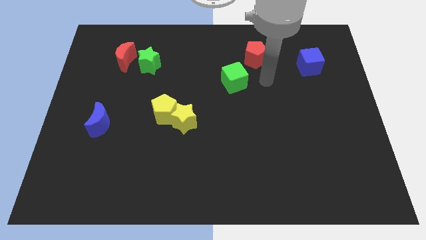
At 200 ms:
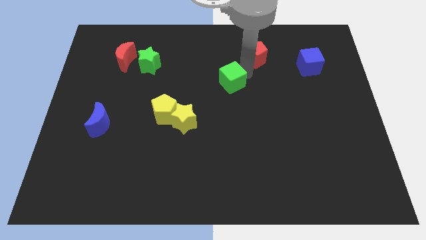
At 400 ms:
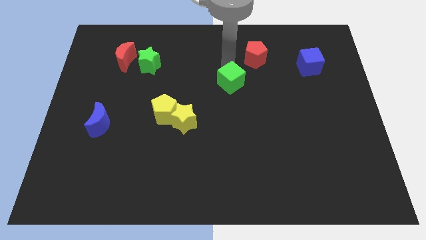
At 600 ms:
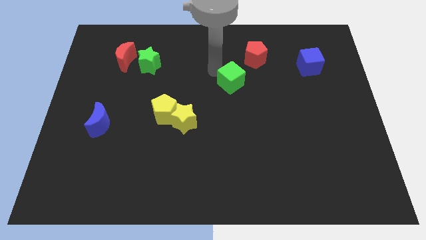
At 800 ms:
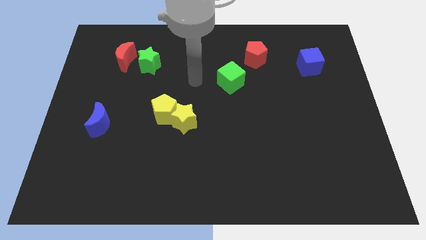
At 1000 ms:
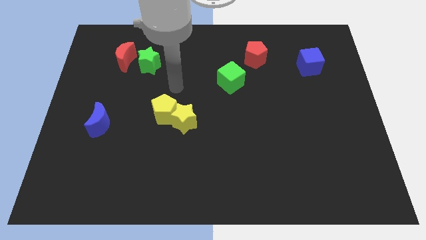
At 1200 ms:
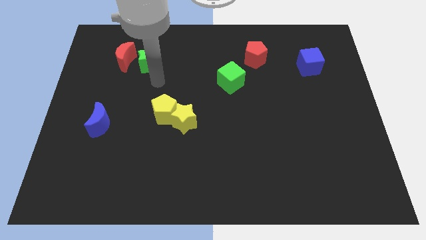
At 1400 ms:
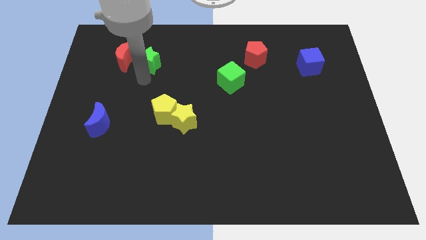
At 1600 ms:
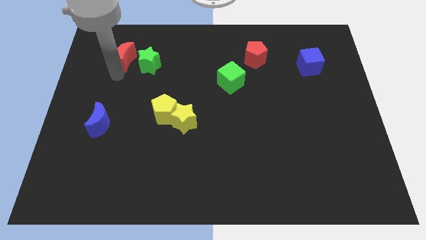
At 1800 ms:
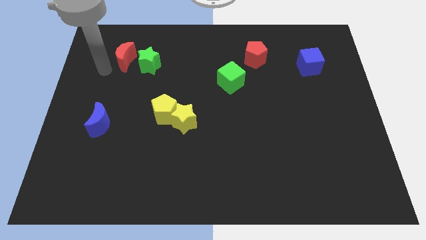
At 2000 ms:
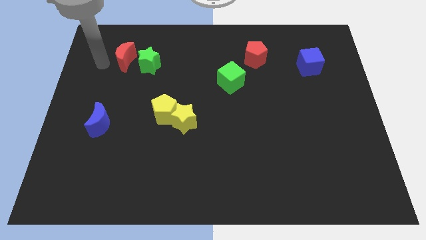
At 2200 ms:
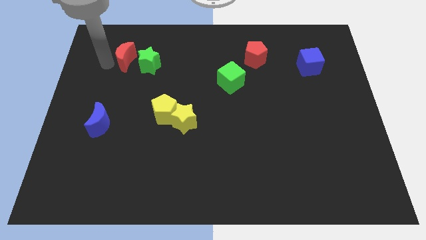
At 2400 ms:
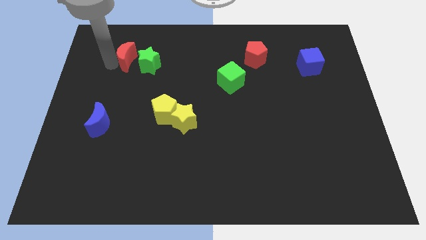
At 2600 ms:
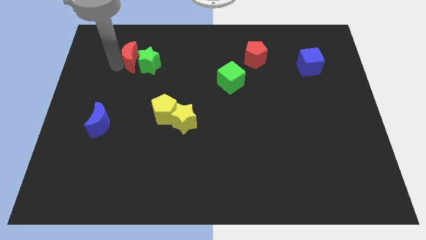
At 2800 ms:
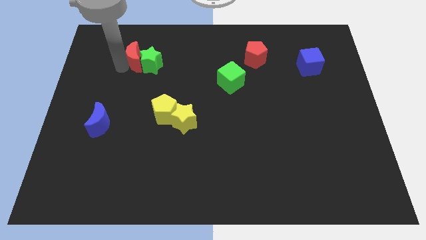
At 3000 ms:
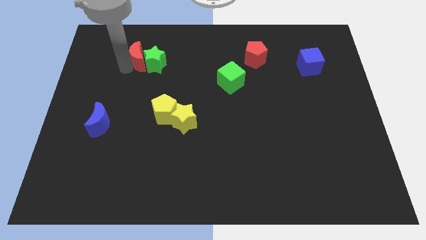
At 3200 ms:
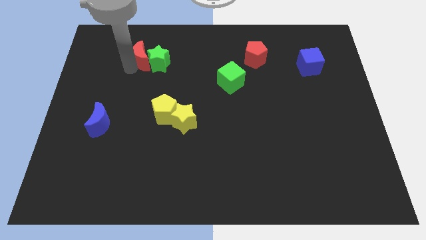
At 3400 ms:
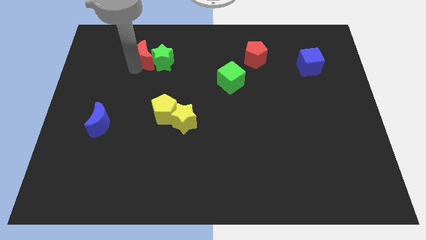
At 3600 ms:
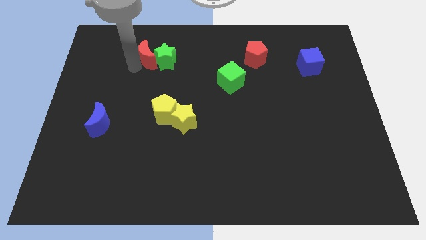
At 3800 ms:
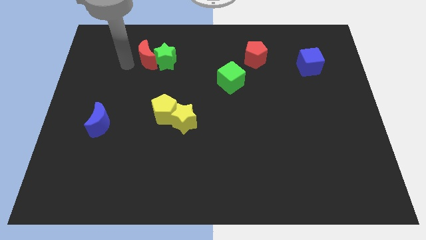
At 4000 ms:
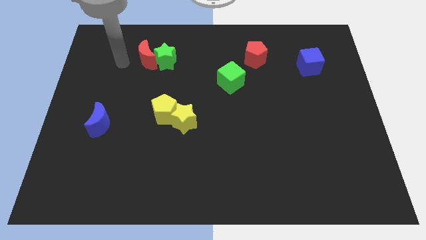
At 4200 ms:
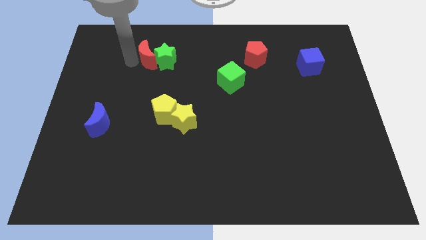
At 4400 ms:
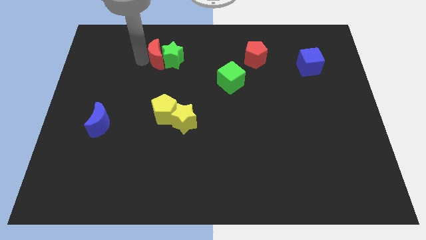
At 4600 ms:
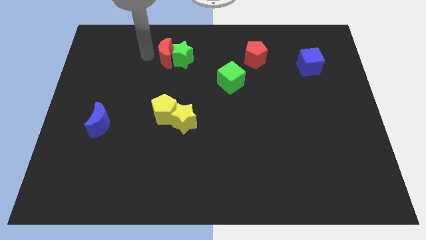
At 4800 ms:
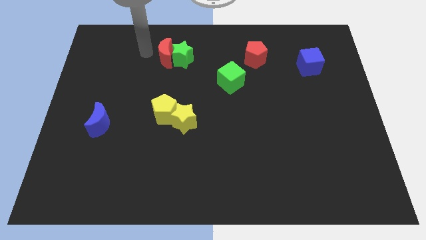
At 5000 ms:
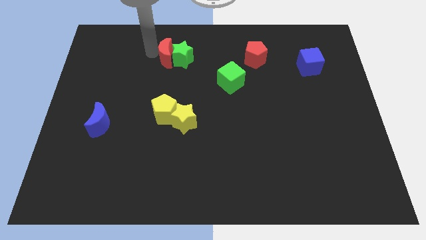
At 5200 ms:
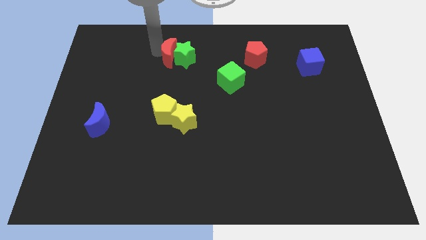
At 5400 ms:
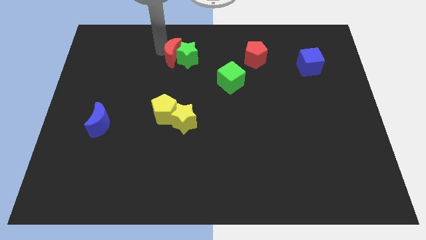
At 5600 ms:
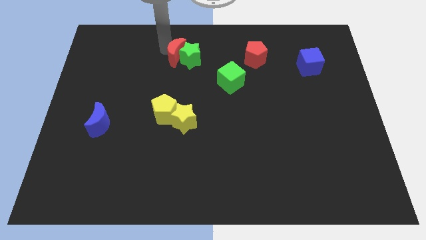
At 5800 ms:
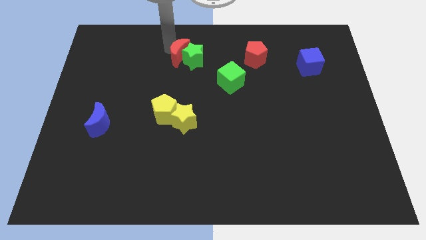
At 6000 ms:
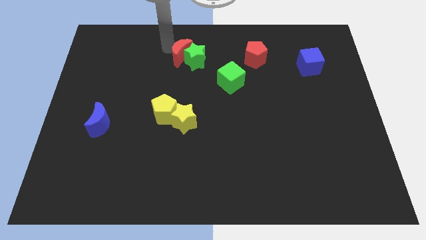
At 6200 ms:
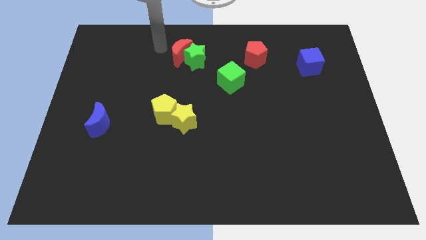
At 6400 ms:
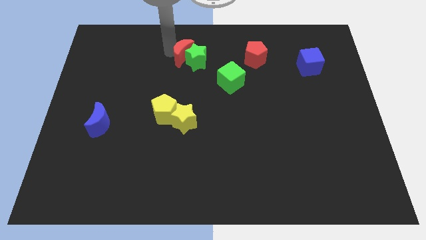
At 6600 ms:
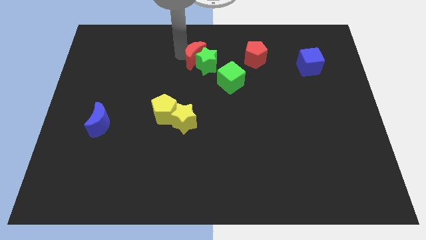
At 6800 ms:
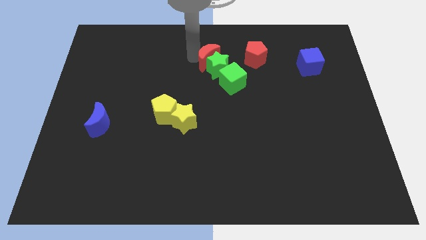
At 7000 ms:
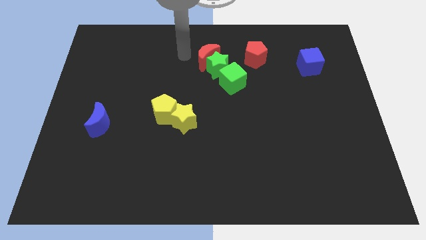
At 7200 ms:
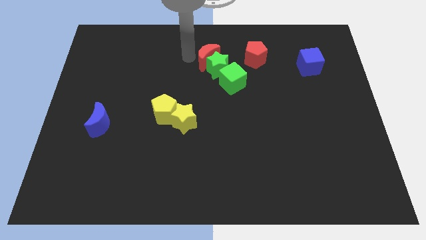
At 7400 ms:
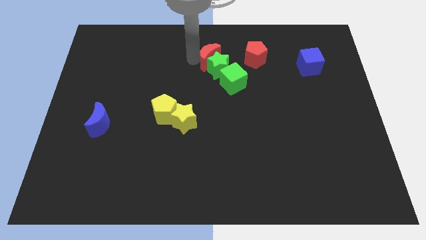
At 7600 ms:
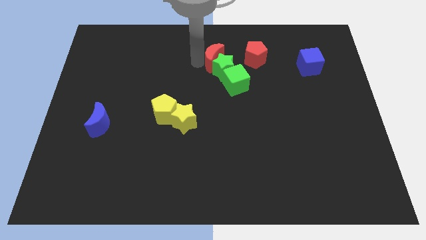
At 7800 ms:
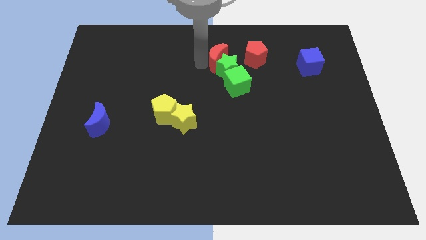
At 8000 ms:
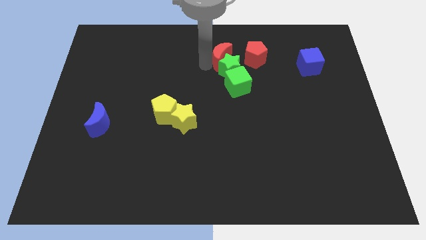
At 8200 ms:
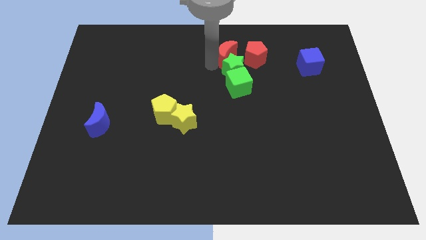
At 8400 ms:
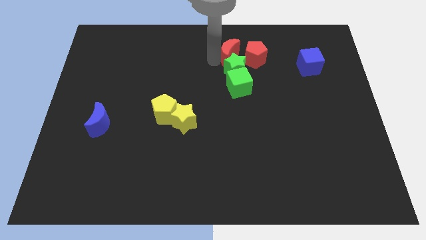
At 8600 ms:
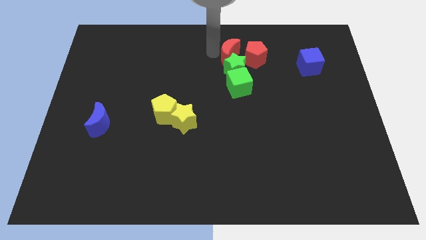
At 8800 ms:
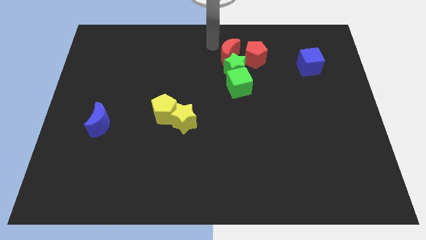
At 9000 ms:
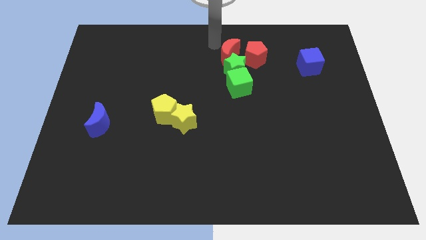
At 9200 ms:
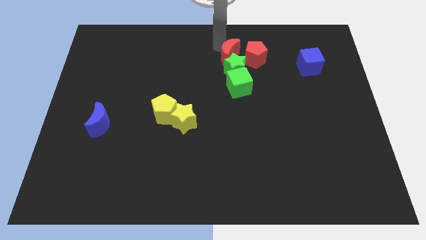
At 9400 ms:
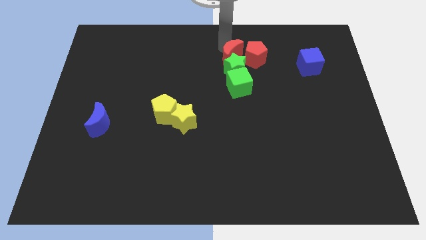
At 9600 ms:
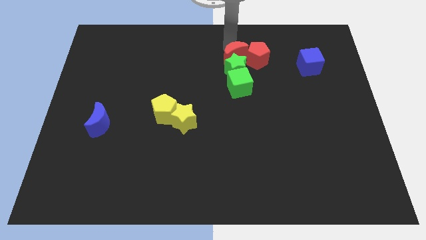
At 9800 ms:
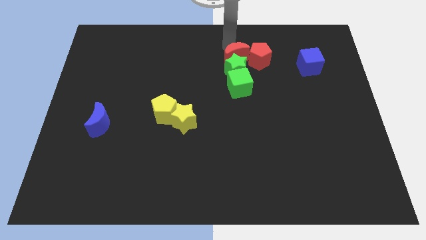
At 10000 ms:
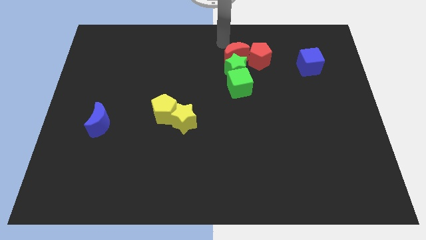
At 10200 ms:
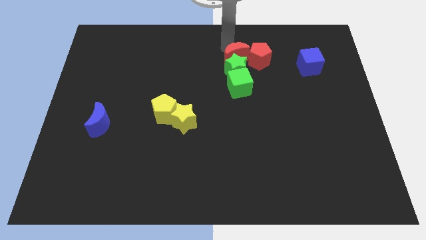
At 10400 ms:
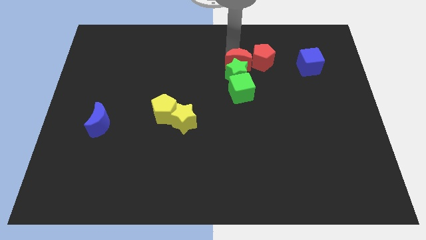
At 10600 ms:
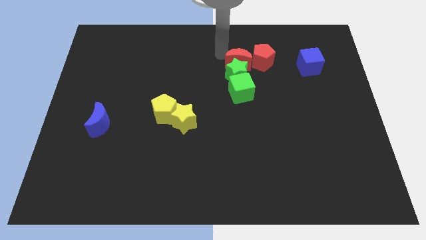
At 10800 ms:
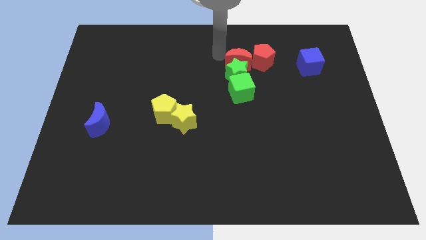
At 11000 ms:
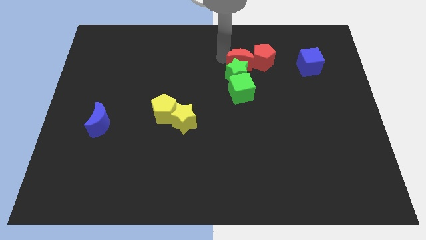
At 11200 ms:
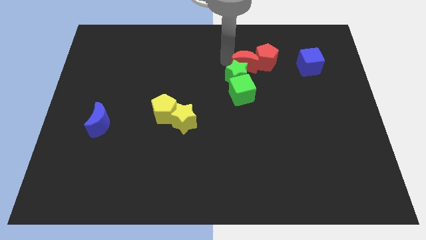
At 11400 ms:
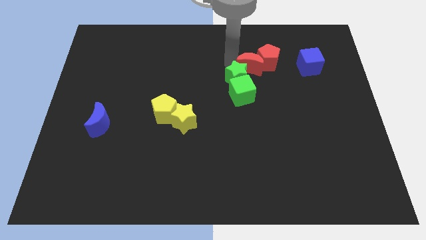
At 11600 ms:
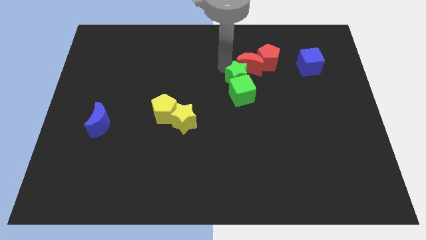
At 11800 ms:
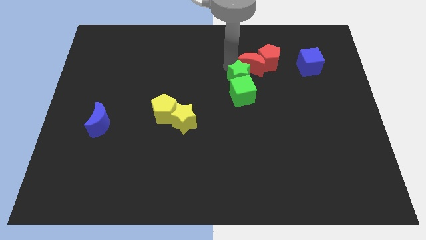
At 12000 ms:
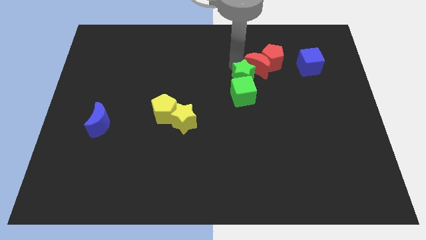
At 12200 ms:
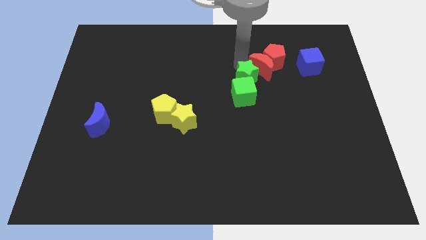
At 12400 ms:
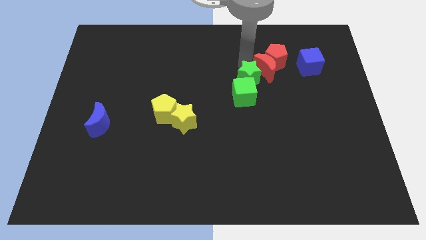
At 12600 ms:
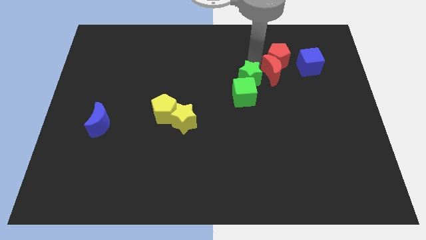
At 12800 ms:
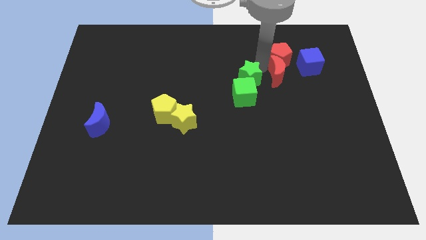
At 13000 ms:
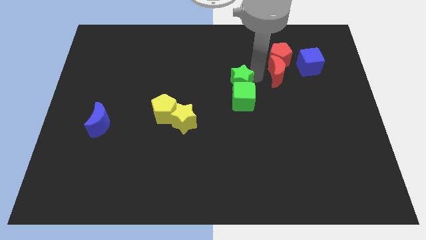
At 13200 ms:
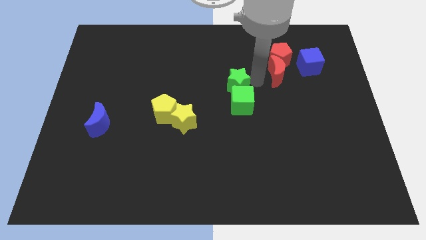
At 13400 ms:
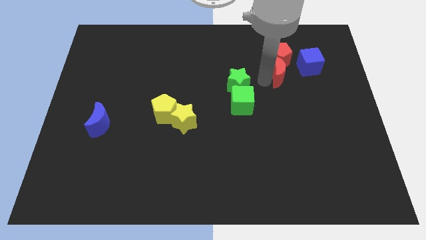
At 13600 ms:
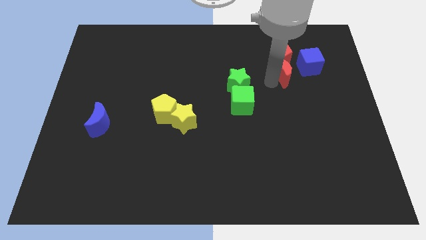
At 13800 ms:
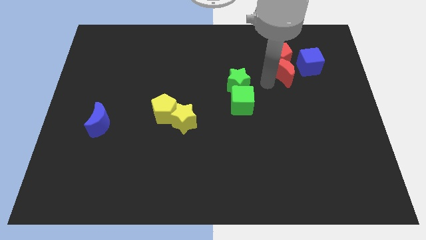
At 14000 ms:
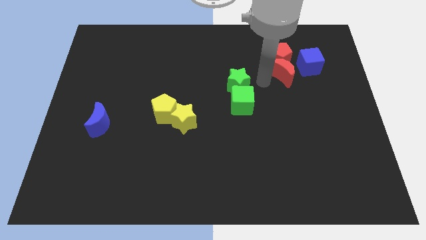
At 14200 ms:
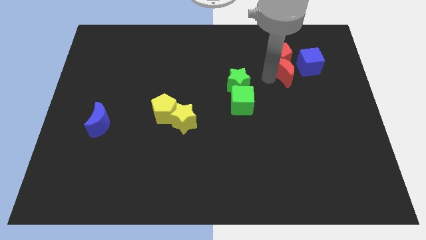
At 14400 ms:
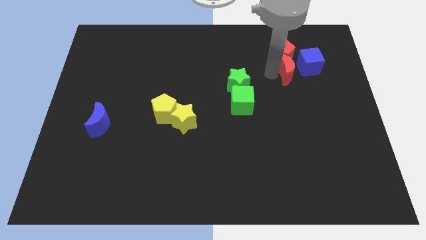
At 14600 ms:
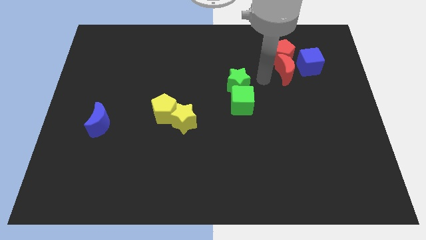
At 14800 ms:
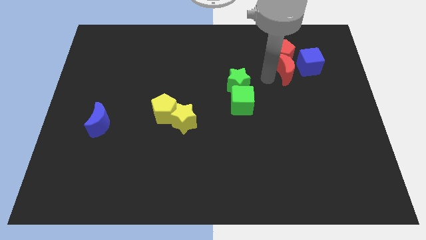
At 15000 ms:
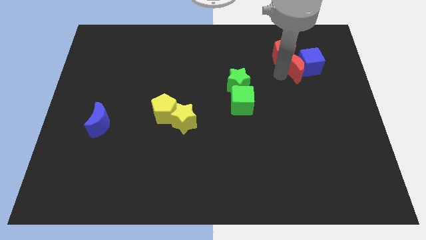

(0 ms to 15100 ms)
put the red moon to the blue cube

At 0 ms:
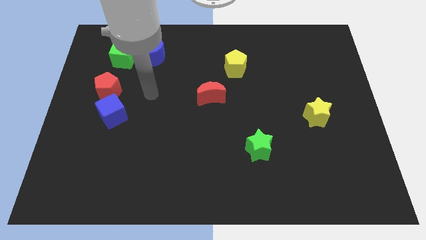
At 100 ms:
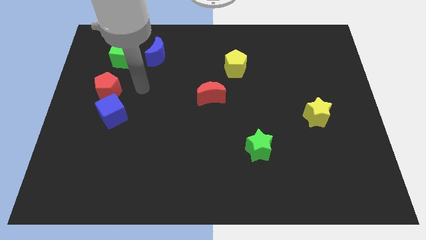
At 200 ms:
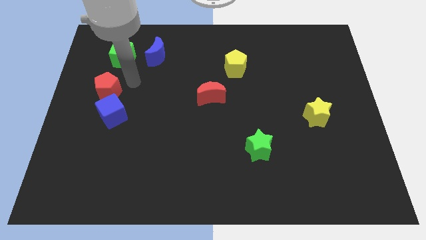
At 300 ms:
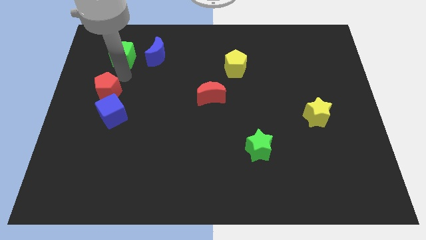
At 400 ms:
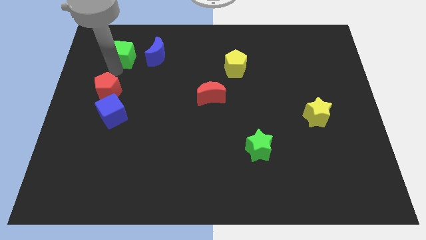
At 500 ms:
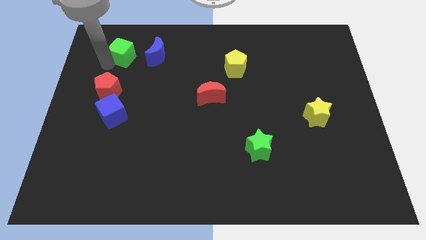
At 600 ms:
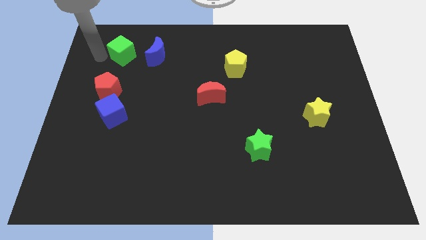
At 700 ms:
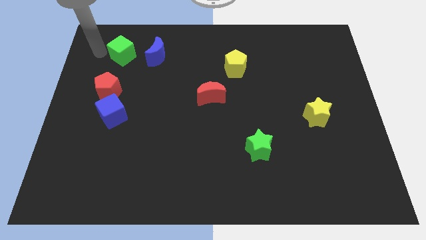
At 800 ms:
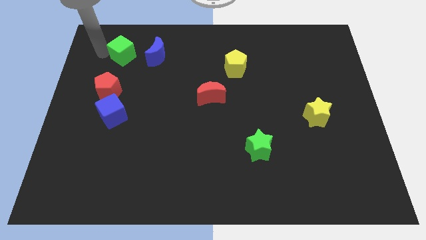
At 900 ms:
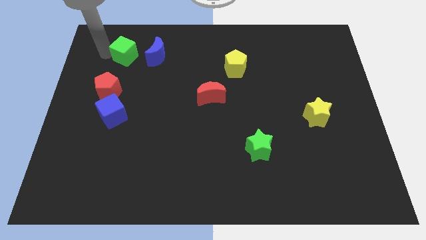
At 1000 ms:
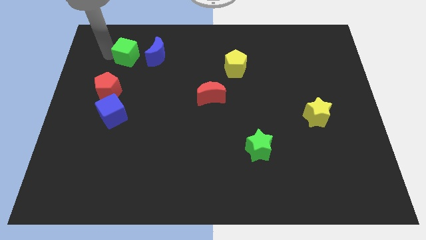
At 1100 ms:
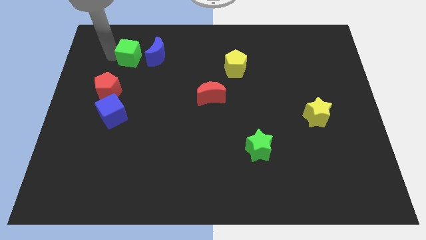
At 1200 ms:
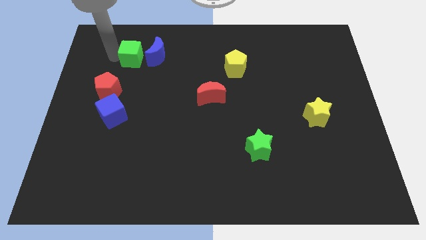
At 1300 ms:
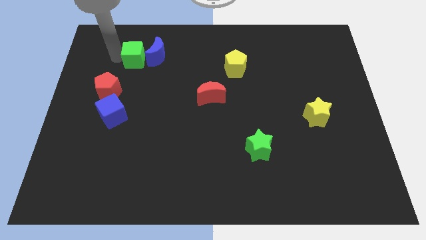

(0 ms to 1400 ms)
put the green cube towards the blue moon
